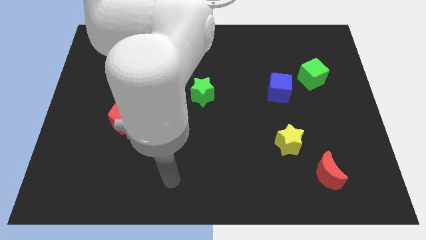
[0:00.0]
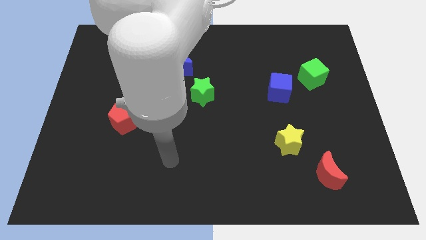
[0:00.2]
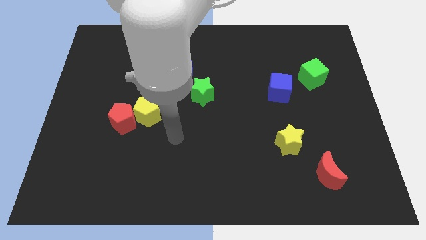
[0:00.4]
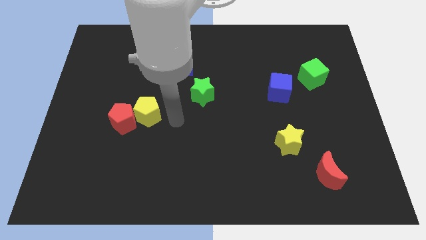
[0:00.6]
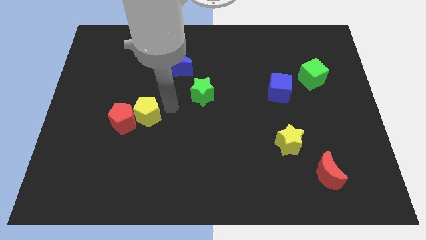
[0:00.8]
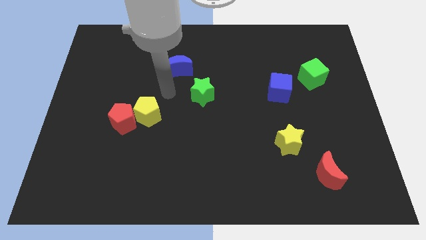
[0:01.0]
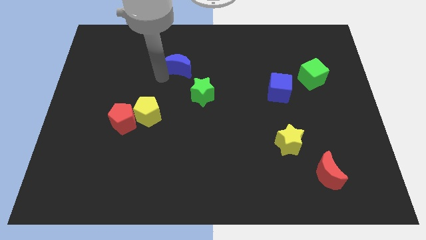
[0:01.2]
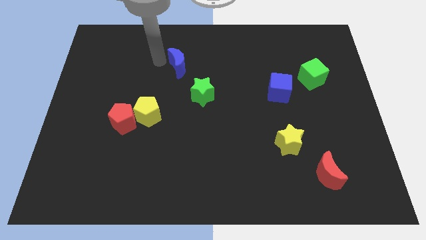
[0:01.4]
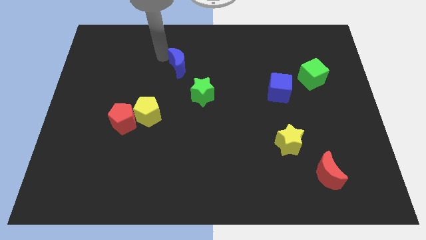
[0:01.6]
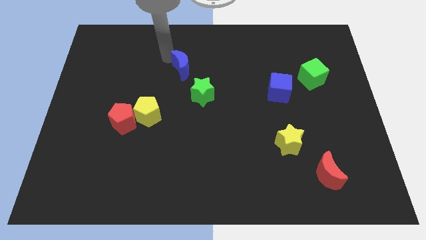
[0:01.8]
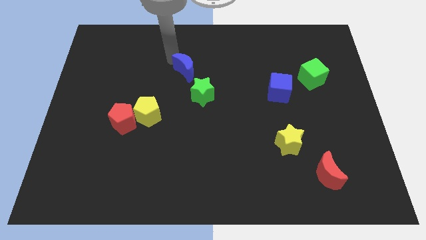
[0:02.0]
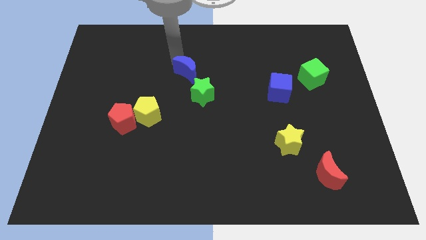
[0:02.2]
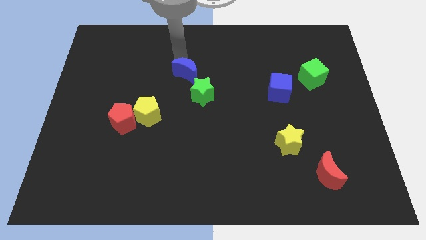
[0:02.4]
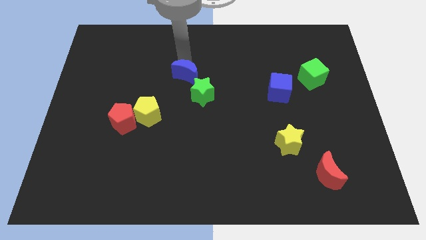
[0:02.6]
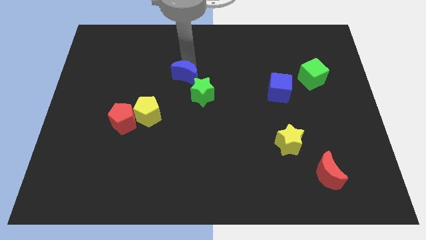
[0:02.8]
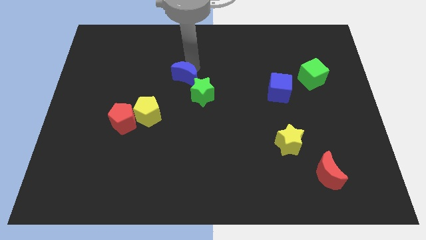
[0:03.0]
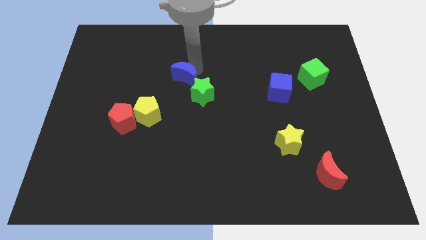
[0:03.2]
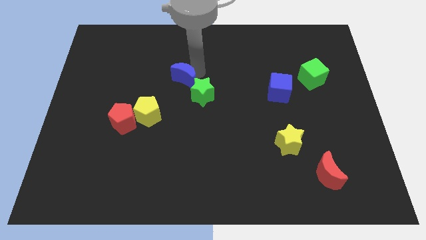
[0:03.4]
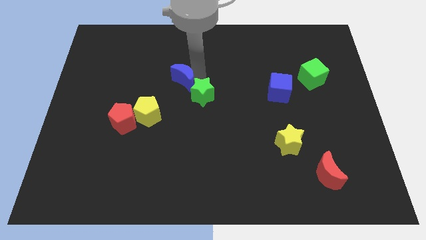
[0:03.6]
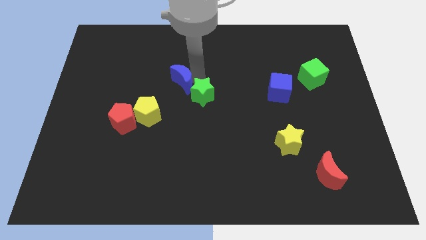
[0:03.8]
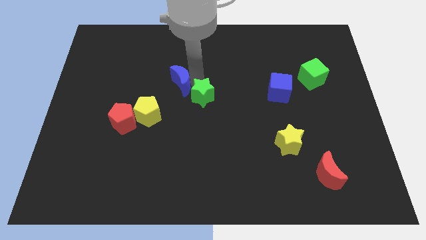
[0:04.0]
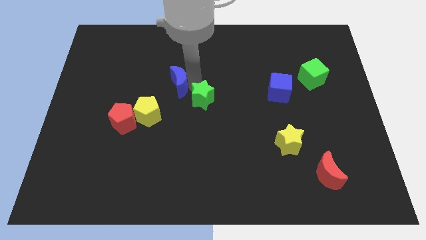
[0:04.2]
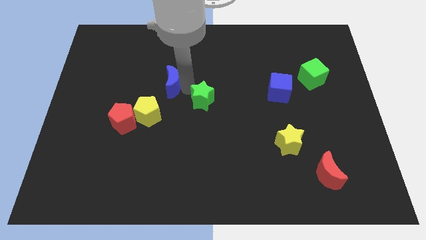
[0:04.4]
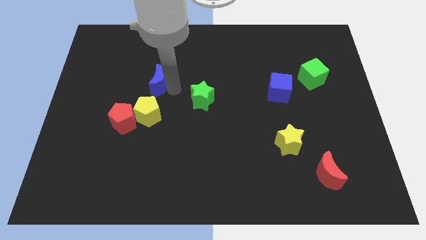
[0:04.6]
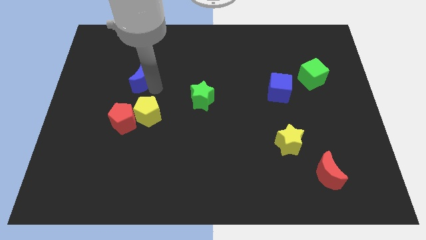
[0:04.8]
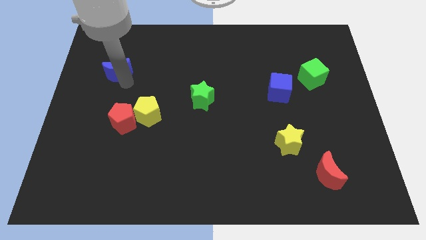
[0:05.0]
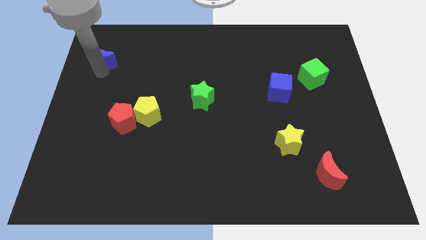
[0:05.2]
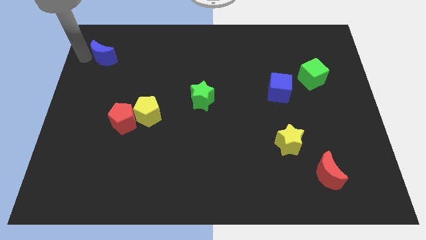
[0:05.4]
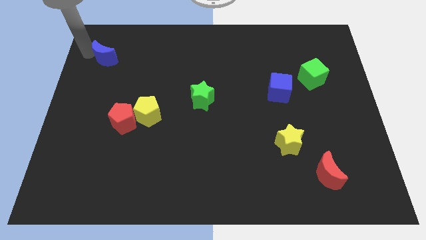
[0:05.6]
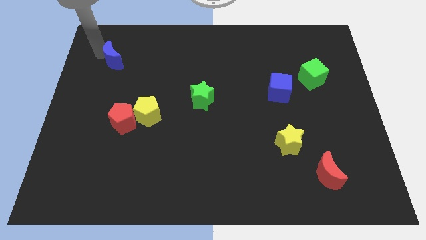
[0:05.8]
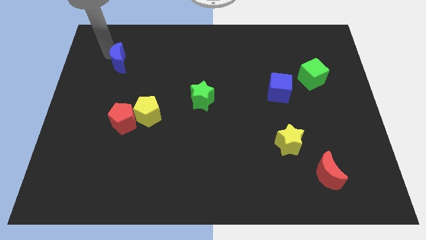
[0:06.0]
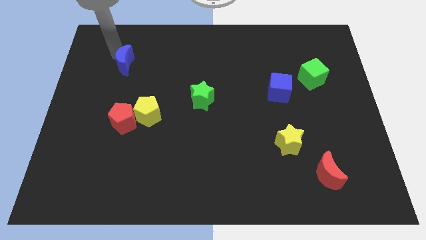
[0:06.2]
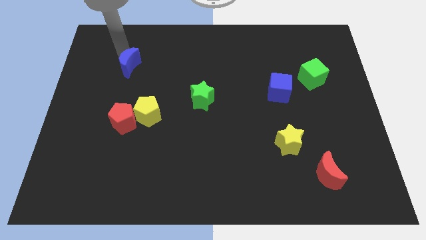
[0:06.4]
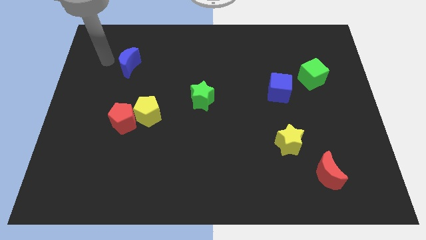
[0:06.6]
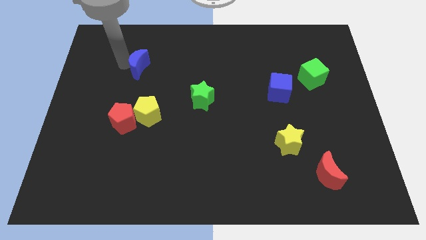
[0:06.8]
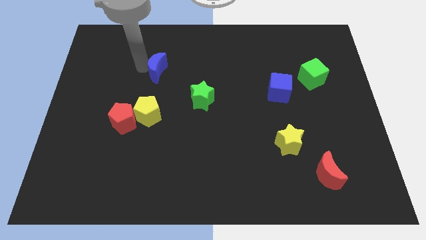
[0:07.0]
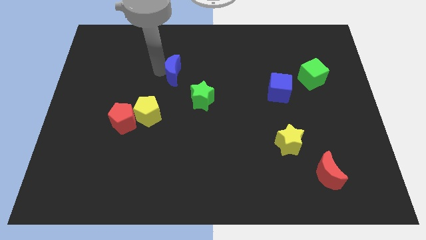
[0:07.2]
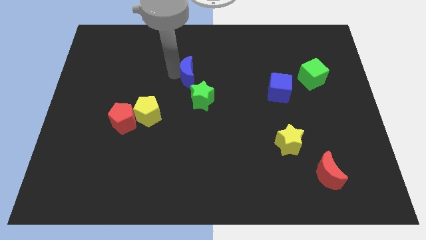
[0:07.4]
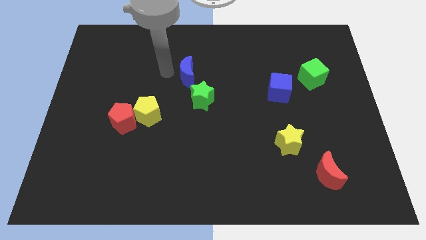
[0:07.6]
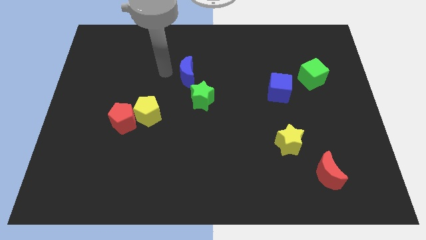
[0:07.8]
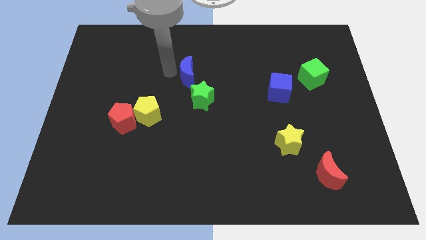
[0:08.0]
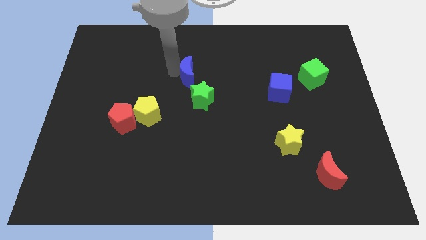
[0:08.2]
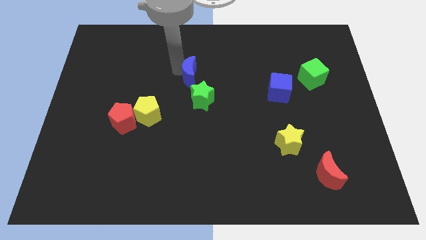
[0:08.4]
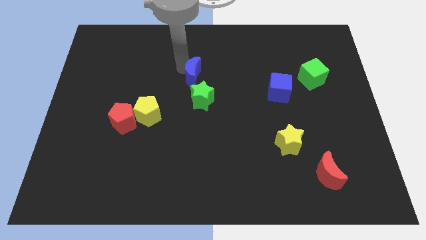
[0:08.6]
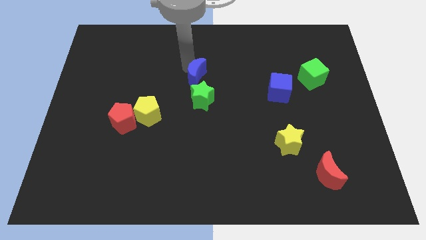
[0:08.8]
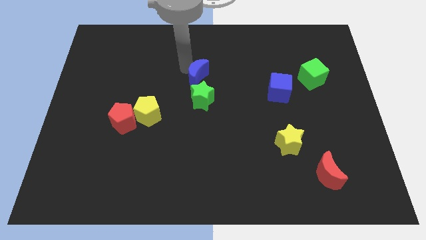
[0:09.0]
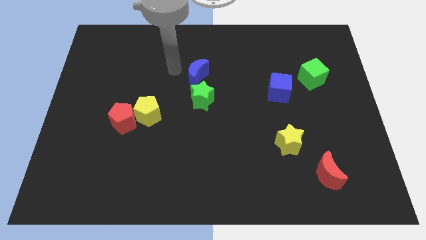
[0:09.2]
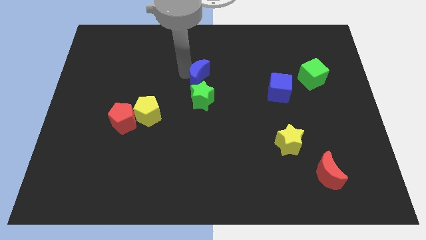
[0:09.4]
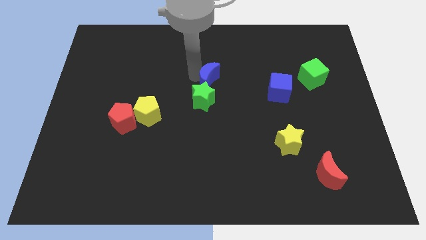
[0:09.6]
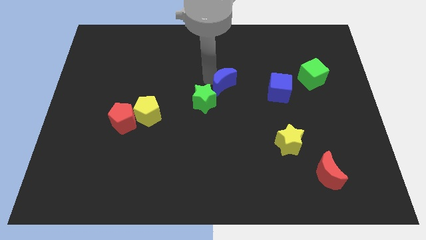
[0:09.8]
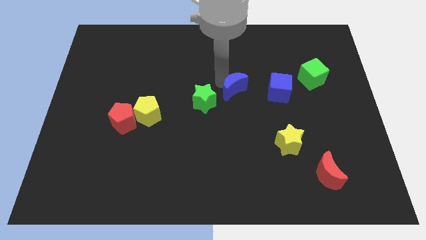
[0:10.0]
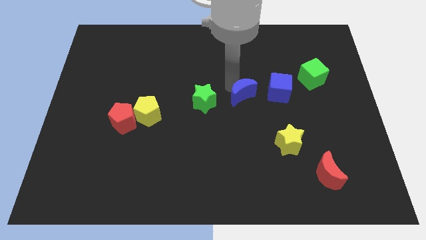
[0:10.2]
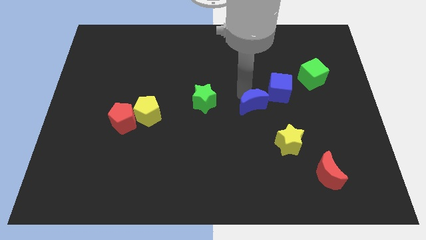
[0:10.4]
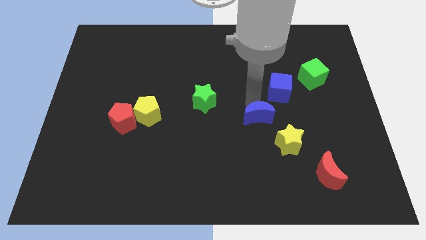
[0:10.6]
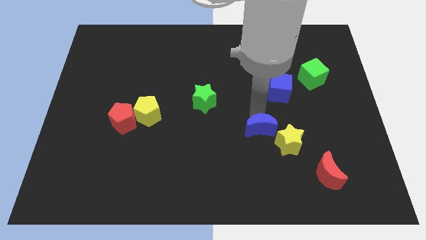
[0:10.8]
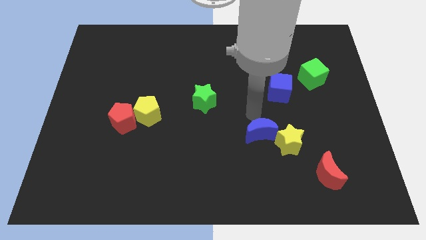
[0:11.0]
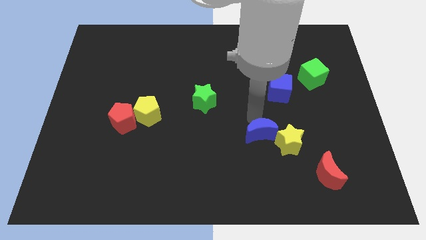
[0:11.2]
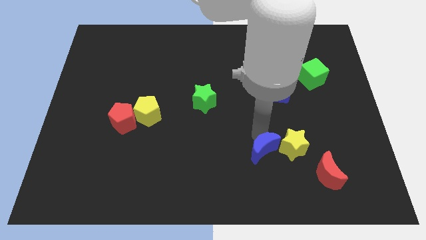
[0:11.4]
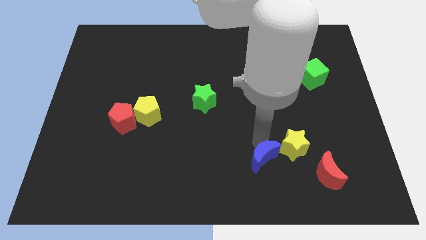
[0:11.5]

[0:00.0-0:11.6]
push the blue moon just left of the red moon
